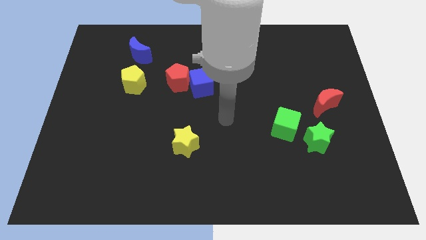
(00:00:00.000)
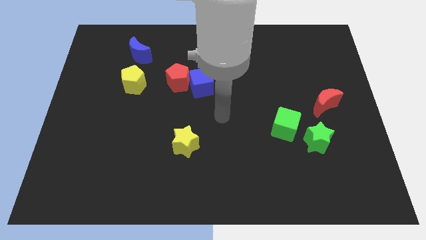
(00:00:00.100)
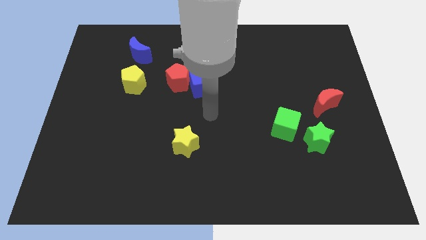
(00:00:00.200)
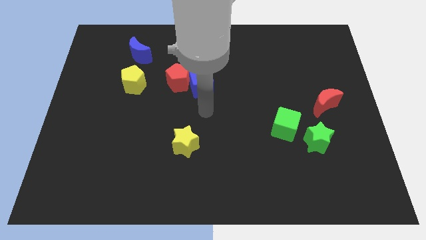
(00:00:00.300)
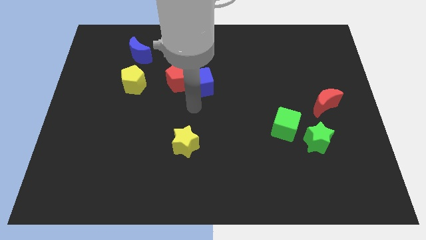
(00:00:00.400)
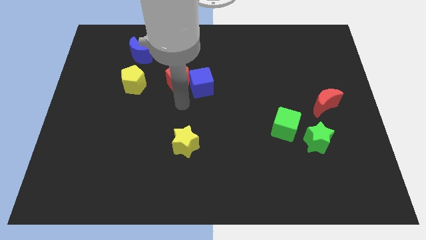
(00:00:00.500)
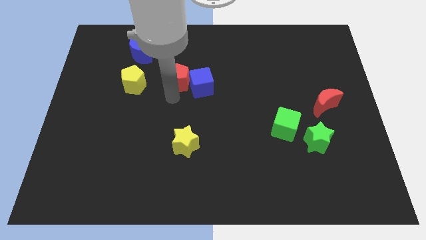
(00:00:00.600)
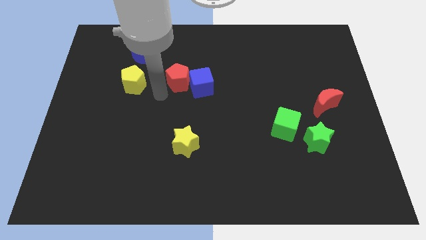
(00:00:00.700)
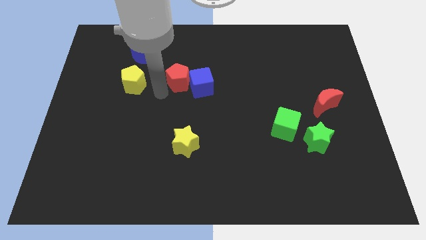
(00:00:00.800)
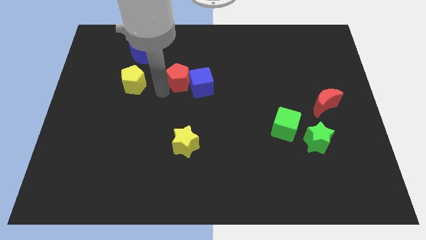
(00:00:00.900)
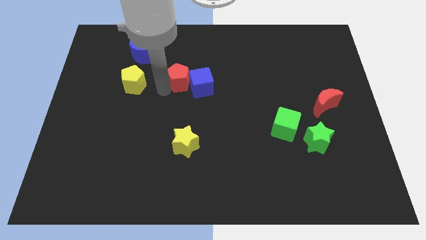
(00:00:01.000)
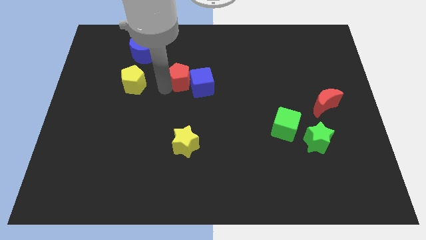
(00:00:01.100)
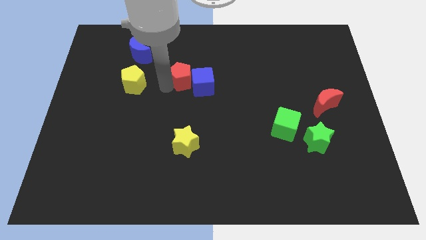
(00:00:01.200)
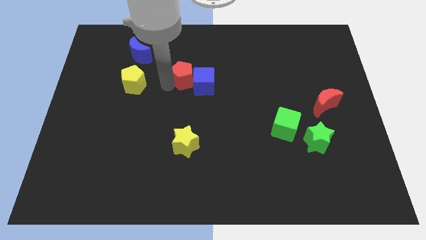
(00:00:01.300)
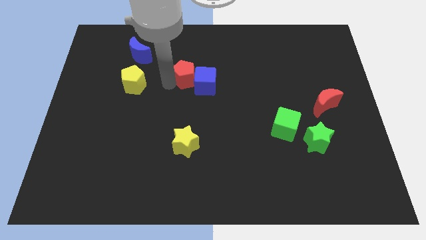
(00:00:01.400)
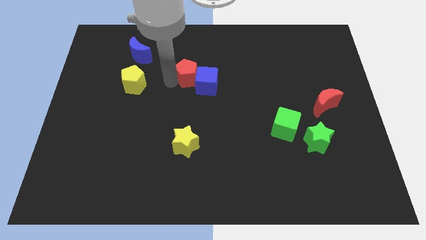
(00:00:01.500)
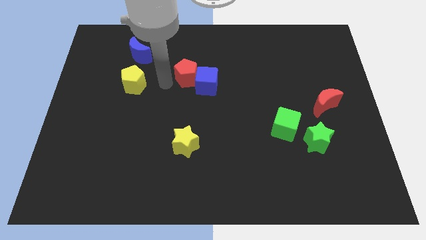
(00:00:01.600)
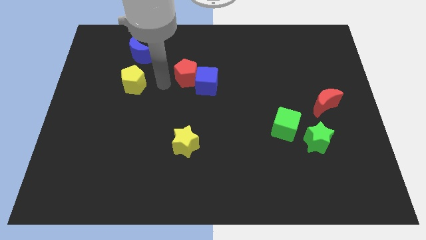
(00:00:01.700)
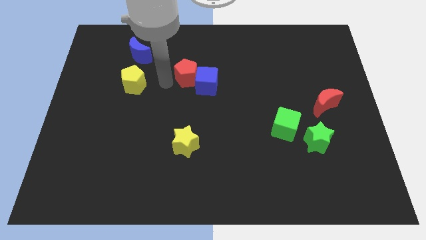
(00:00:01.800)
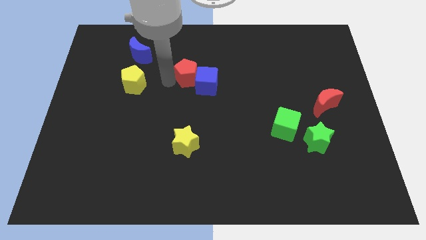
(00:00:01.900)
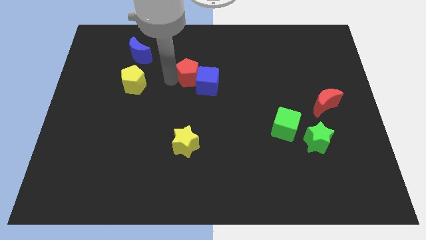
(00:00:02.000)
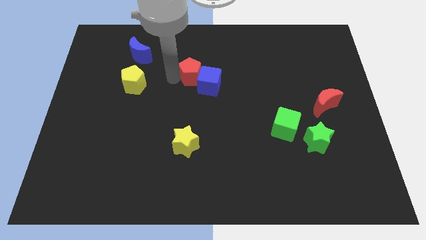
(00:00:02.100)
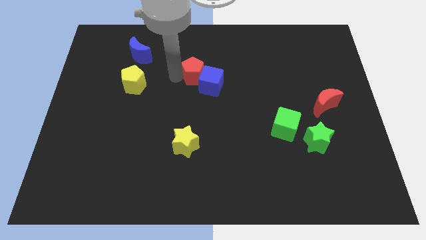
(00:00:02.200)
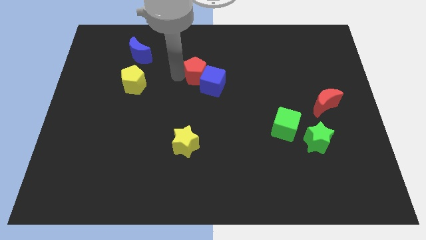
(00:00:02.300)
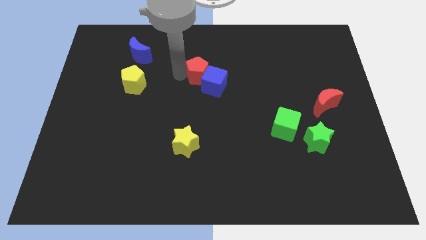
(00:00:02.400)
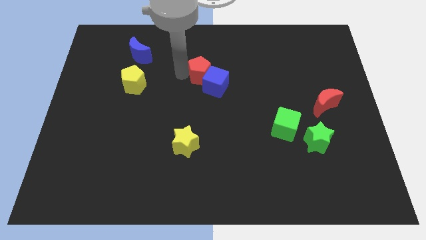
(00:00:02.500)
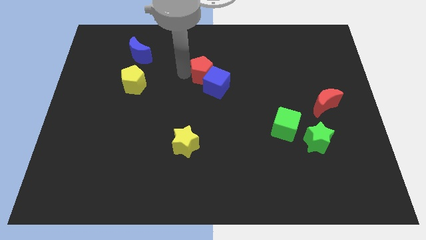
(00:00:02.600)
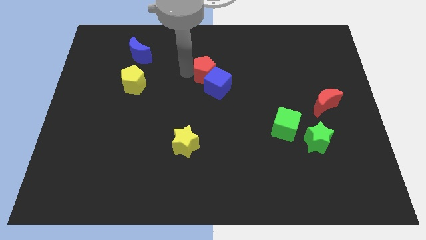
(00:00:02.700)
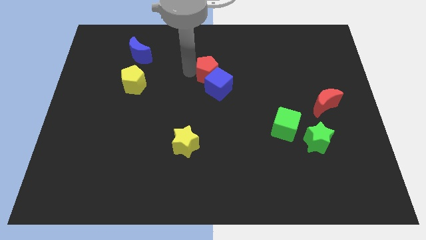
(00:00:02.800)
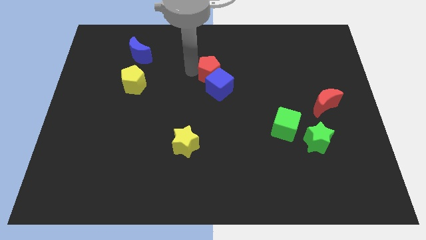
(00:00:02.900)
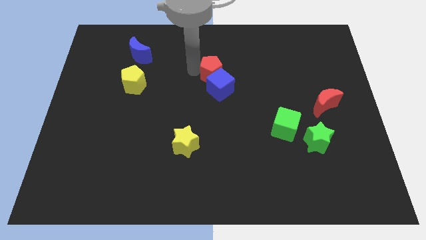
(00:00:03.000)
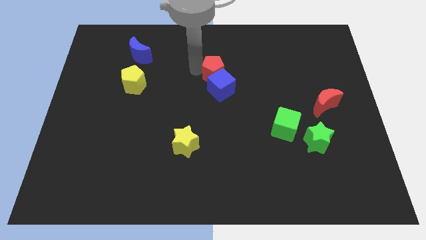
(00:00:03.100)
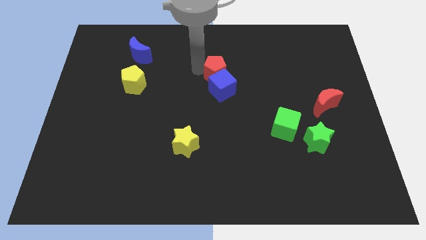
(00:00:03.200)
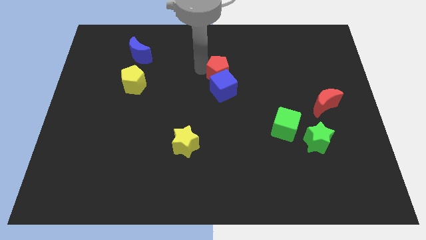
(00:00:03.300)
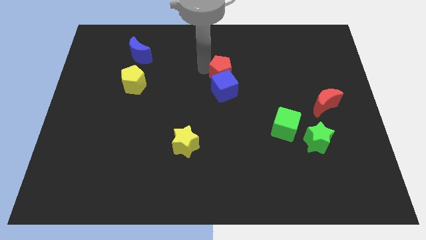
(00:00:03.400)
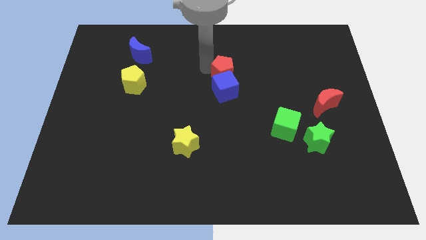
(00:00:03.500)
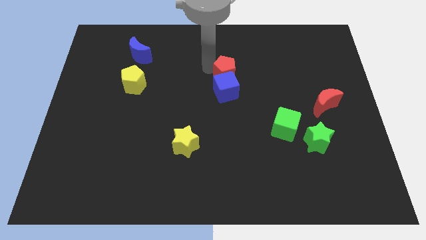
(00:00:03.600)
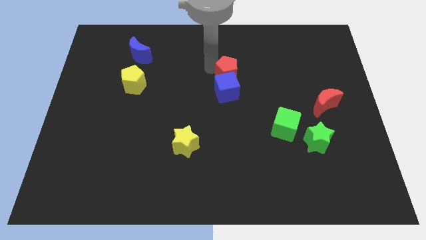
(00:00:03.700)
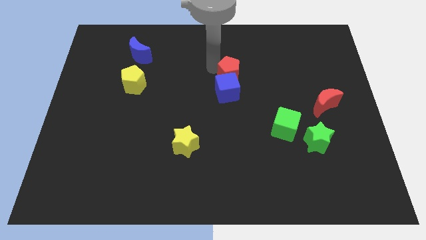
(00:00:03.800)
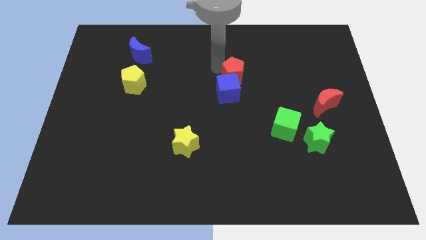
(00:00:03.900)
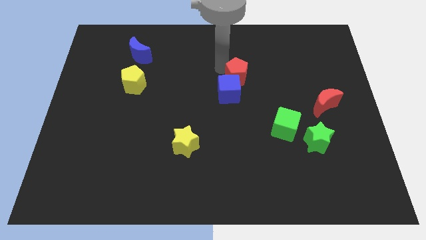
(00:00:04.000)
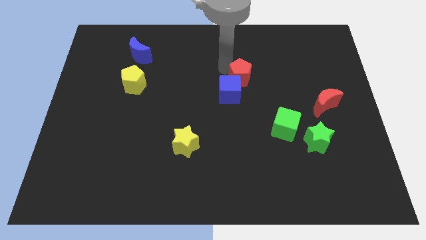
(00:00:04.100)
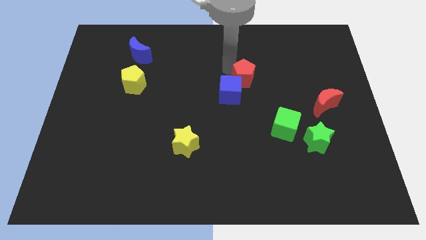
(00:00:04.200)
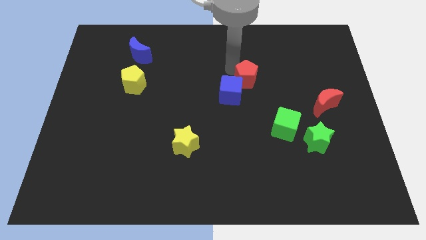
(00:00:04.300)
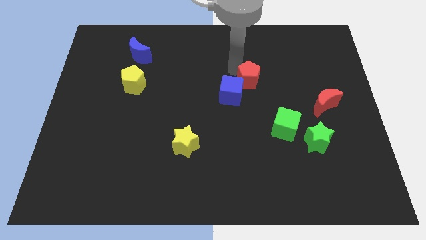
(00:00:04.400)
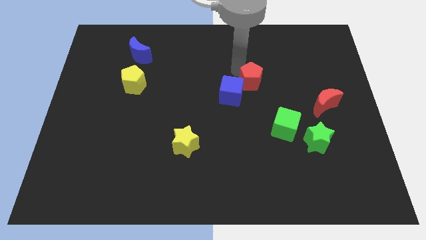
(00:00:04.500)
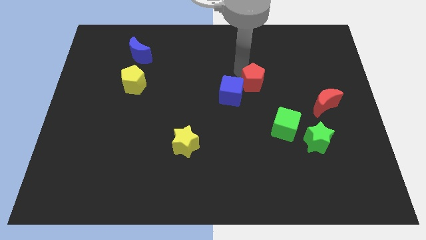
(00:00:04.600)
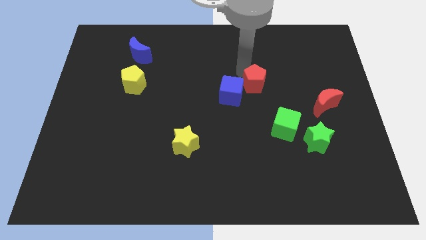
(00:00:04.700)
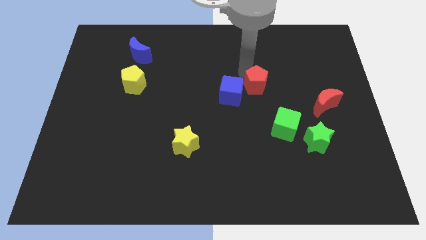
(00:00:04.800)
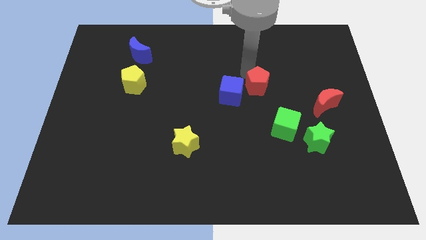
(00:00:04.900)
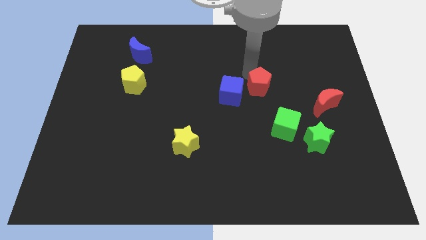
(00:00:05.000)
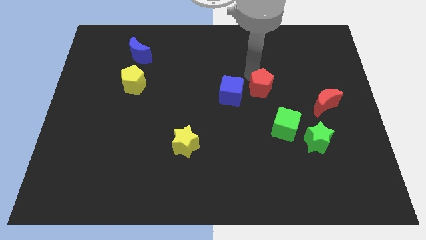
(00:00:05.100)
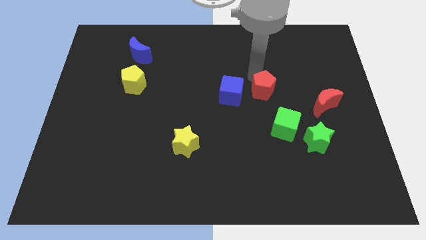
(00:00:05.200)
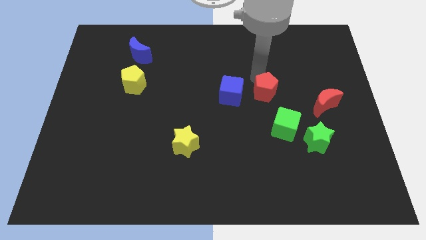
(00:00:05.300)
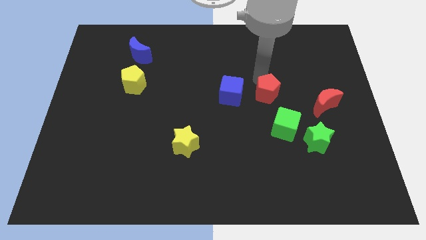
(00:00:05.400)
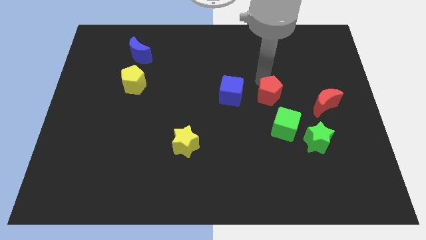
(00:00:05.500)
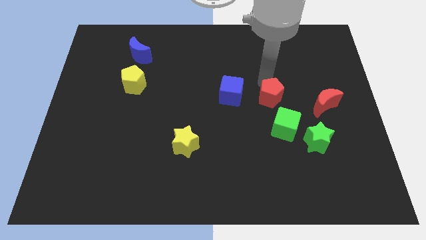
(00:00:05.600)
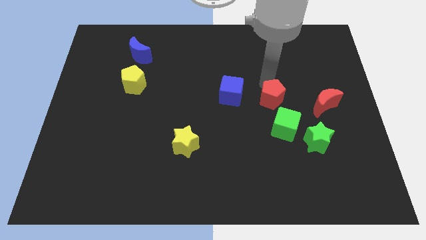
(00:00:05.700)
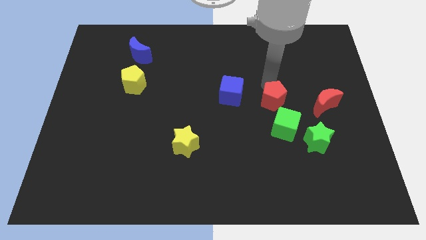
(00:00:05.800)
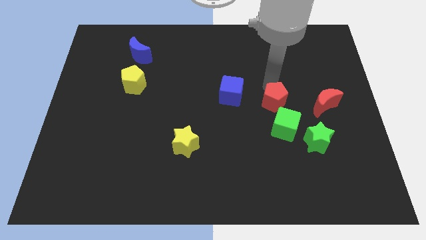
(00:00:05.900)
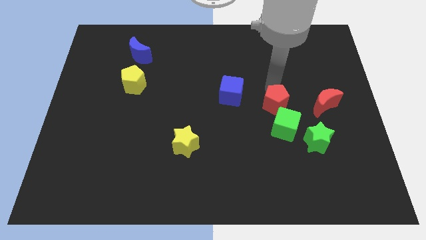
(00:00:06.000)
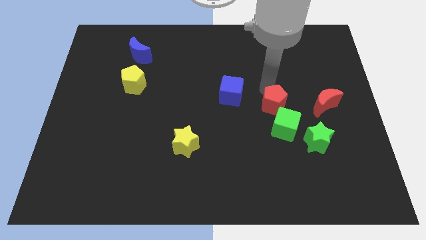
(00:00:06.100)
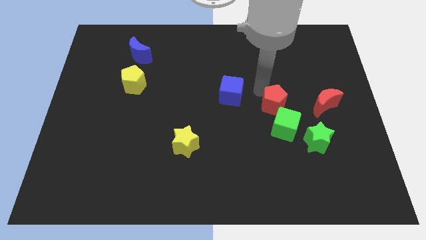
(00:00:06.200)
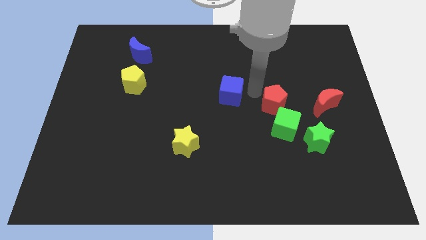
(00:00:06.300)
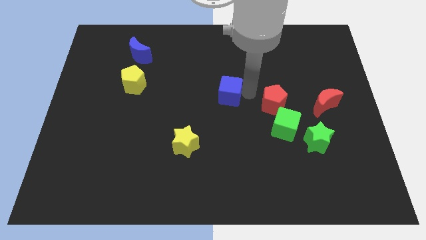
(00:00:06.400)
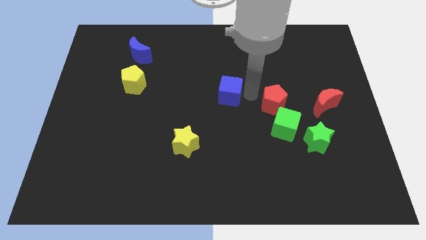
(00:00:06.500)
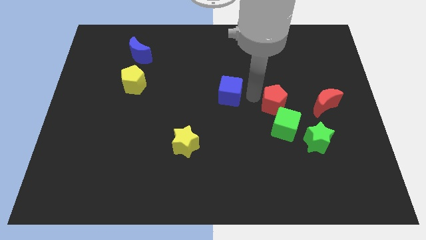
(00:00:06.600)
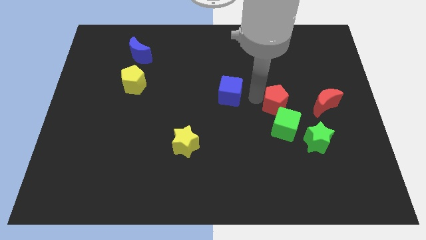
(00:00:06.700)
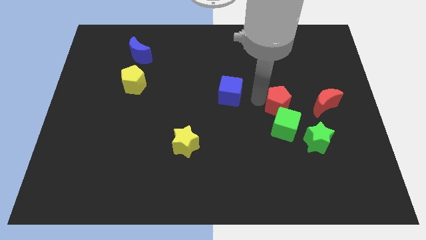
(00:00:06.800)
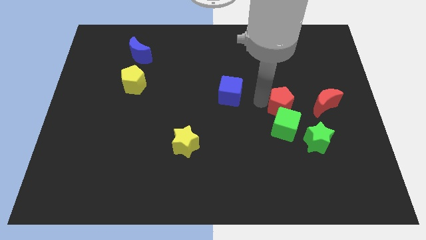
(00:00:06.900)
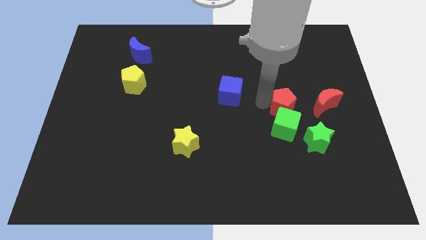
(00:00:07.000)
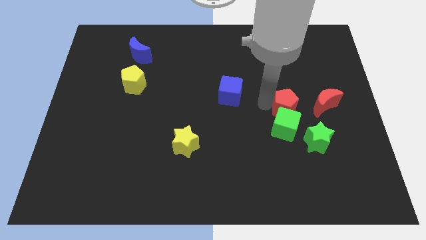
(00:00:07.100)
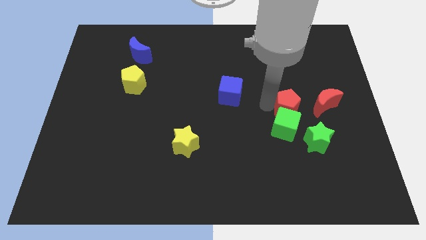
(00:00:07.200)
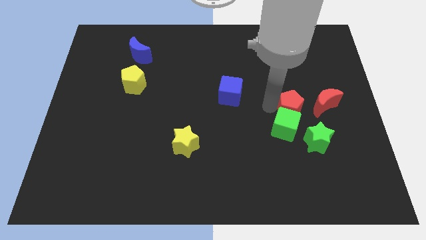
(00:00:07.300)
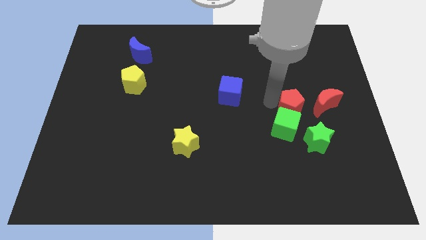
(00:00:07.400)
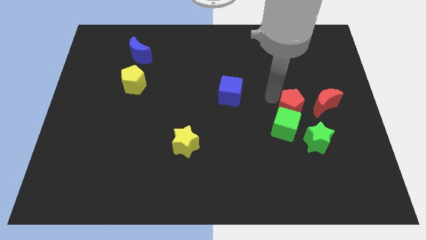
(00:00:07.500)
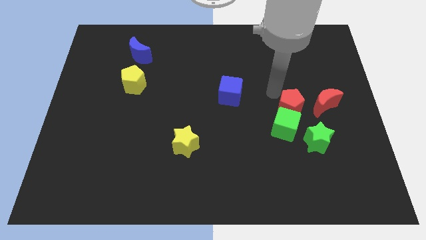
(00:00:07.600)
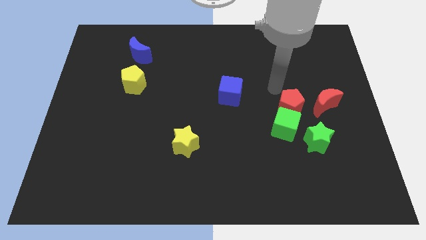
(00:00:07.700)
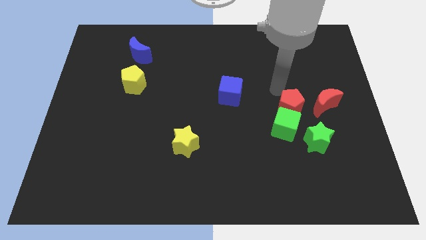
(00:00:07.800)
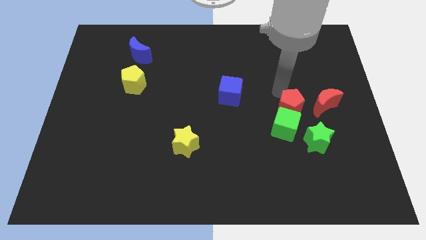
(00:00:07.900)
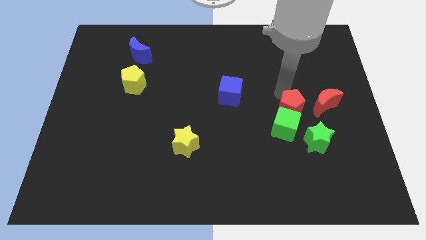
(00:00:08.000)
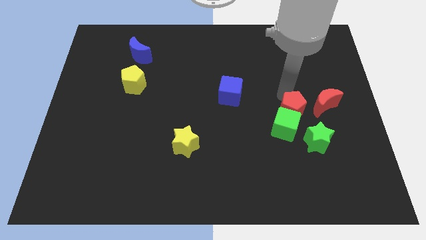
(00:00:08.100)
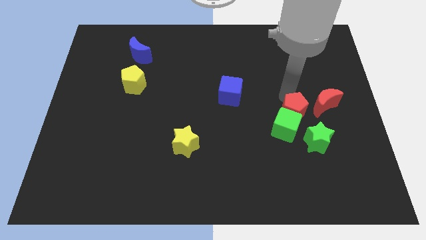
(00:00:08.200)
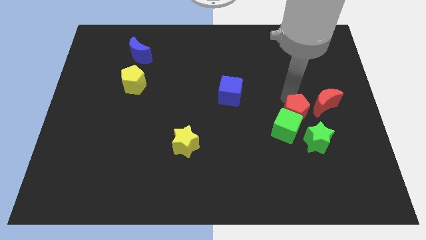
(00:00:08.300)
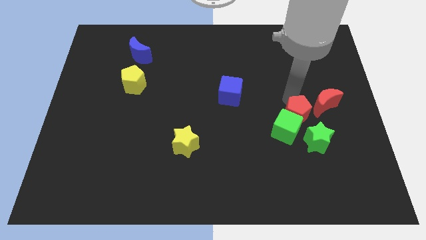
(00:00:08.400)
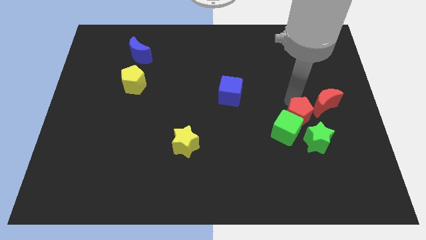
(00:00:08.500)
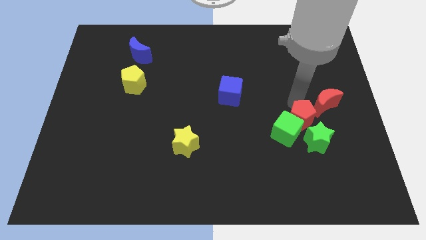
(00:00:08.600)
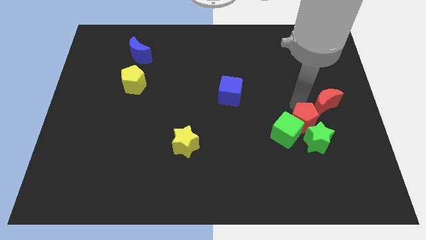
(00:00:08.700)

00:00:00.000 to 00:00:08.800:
put the red pentagon towards the green star
